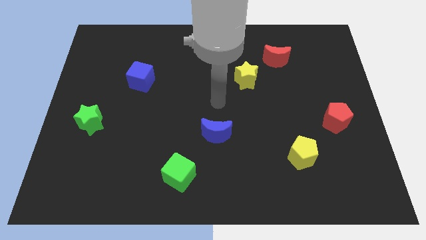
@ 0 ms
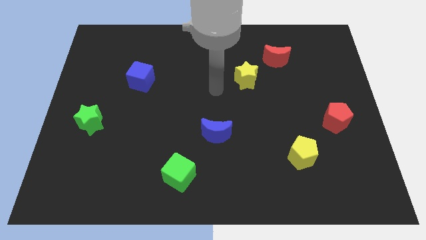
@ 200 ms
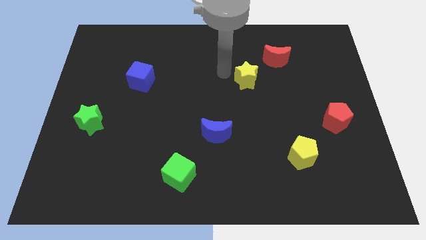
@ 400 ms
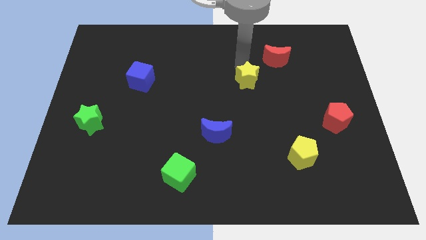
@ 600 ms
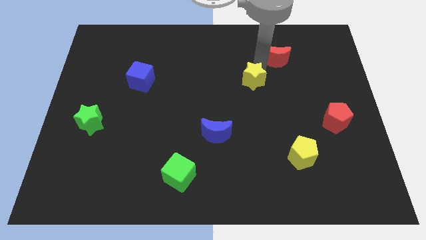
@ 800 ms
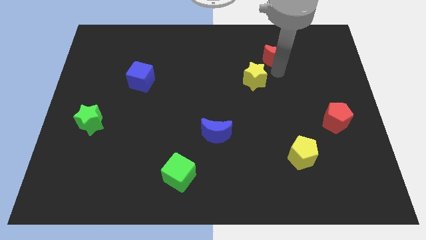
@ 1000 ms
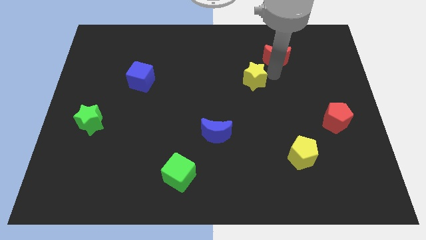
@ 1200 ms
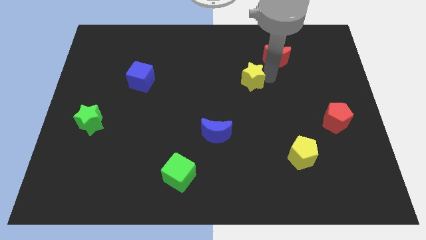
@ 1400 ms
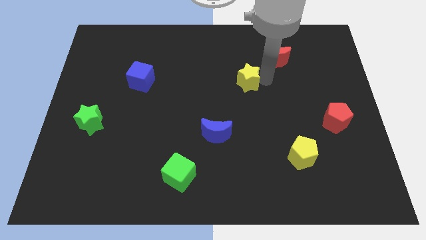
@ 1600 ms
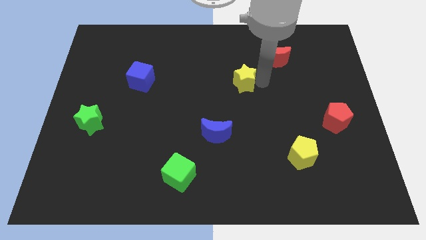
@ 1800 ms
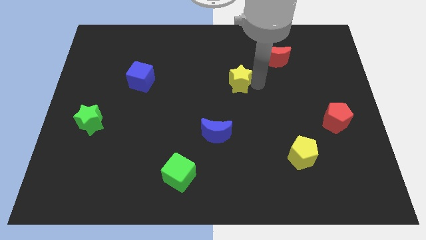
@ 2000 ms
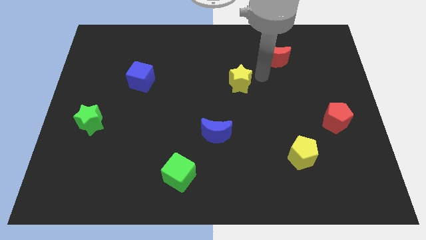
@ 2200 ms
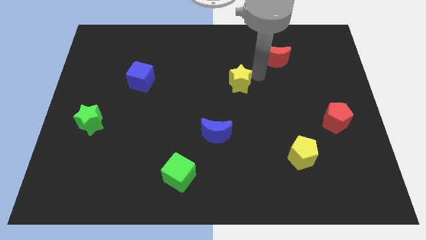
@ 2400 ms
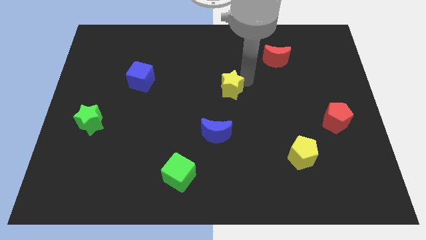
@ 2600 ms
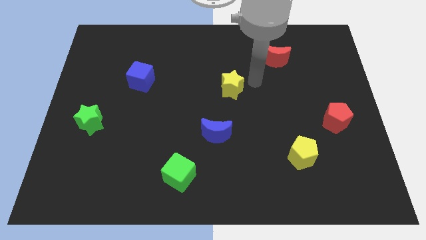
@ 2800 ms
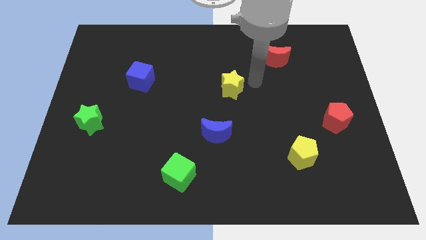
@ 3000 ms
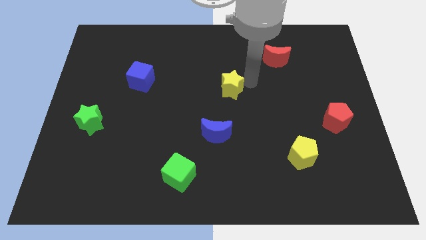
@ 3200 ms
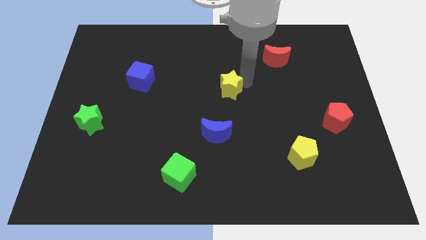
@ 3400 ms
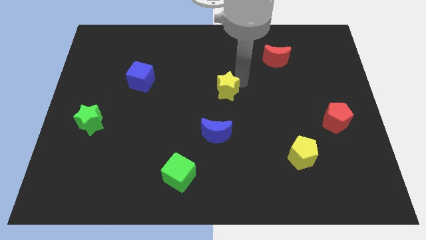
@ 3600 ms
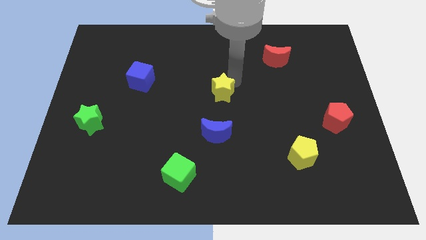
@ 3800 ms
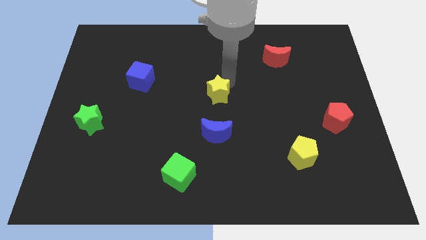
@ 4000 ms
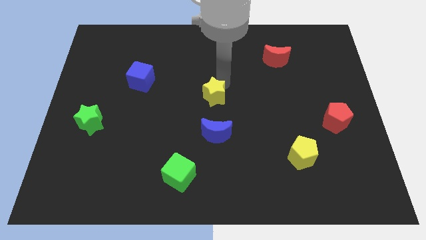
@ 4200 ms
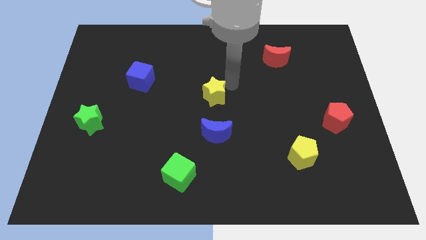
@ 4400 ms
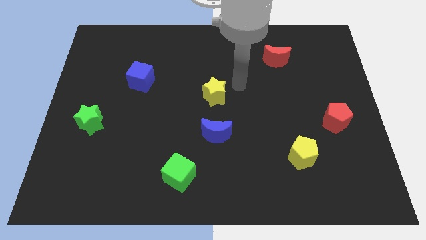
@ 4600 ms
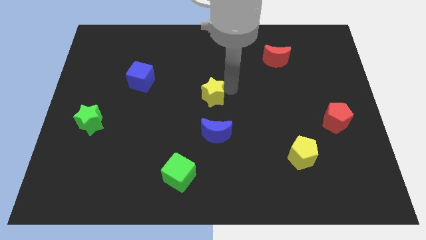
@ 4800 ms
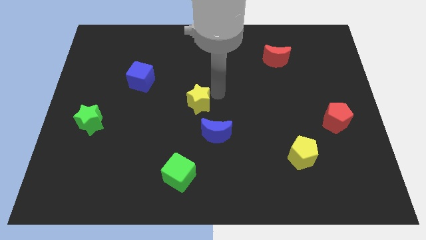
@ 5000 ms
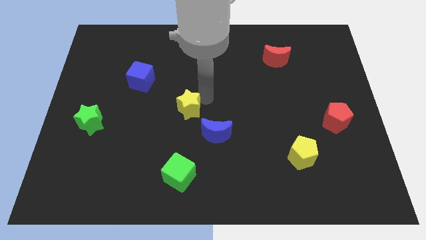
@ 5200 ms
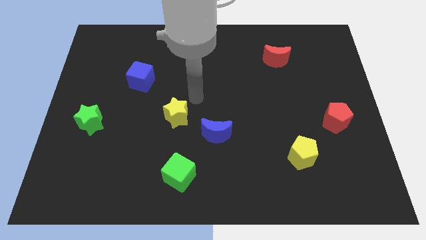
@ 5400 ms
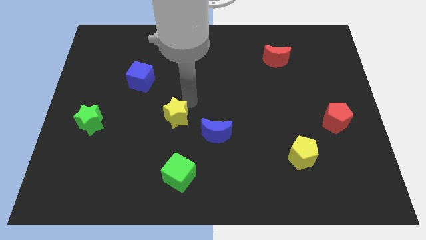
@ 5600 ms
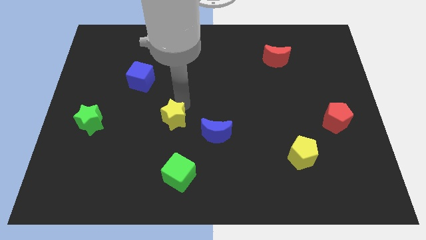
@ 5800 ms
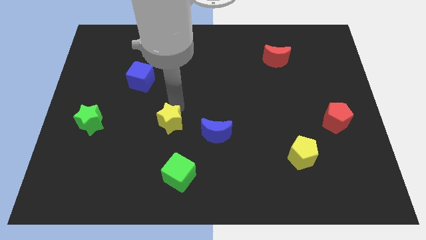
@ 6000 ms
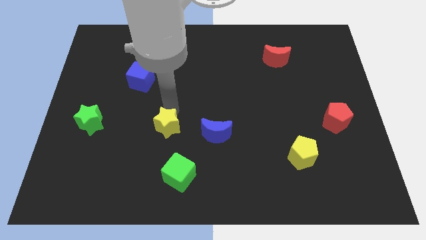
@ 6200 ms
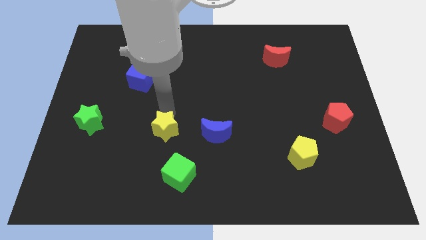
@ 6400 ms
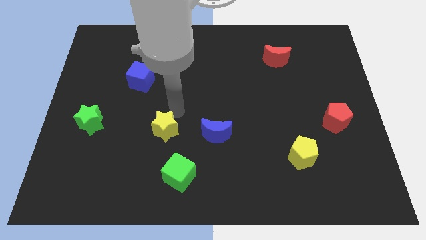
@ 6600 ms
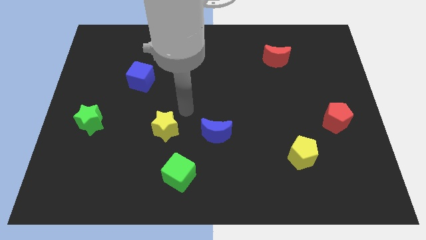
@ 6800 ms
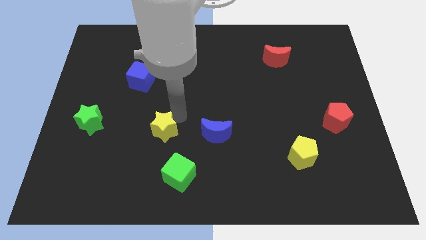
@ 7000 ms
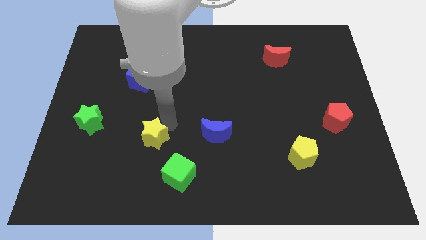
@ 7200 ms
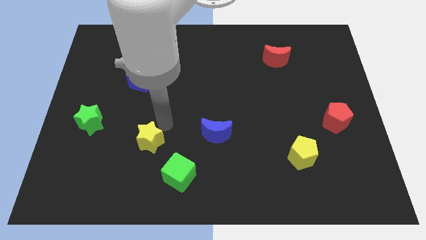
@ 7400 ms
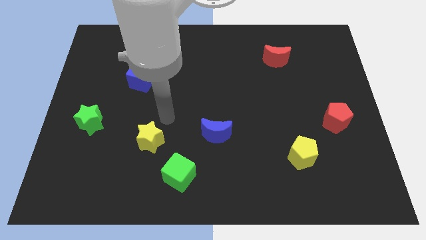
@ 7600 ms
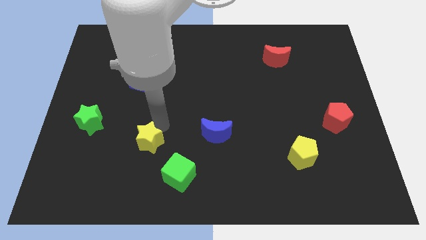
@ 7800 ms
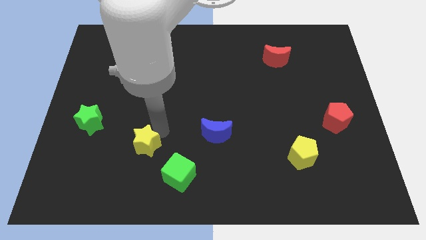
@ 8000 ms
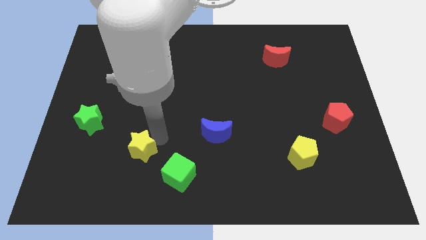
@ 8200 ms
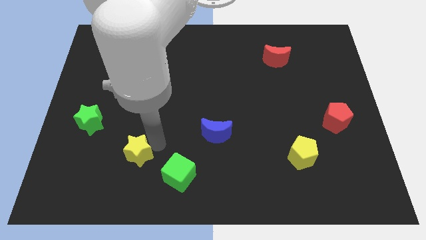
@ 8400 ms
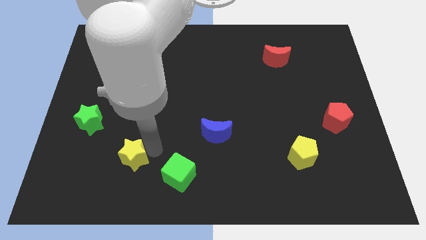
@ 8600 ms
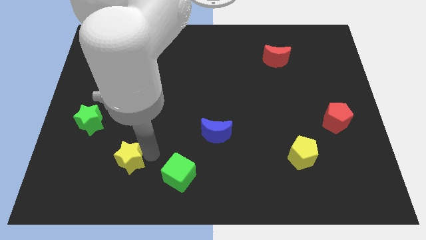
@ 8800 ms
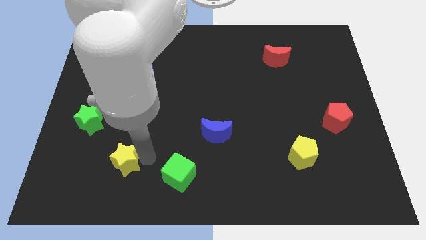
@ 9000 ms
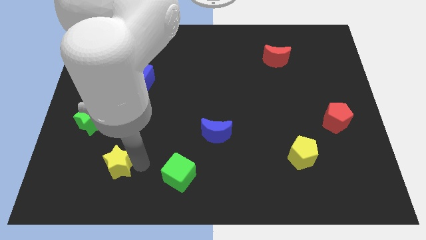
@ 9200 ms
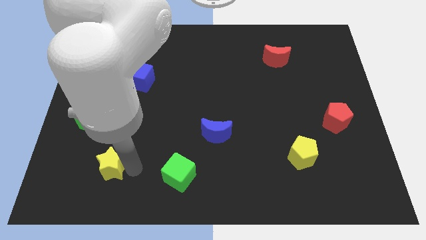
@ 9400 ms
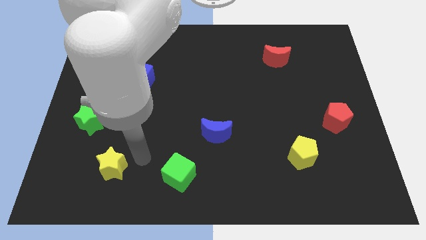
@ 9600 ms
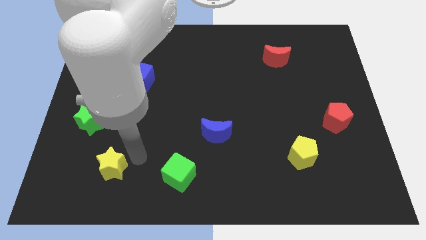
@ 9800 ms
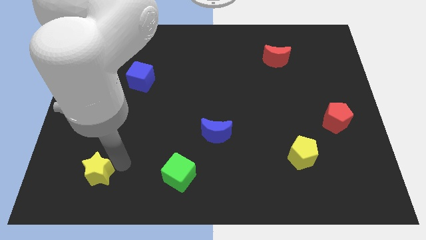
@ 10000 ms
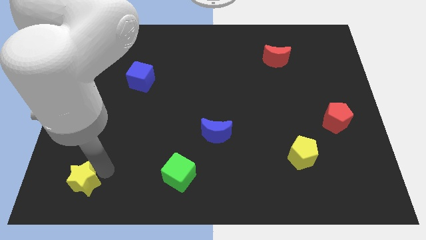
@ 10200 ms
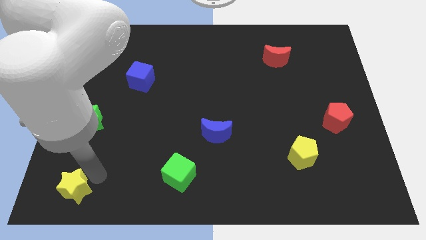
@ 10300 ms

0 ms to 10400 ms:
move the yellow star to the bottom left

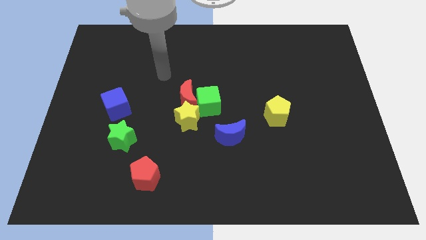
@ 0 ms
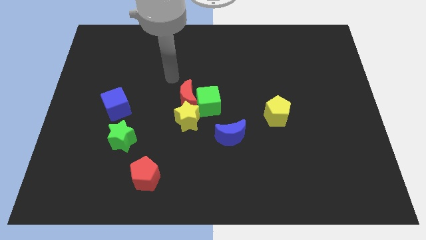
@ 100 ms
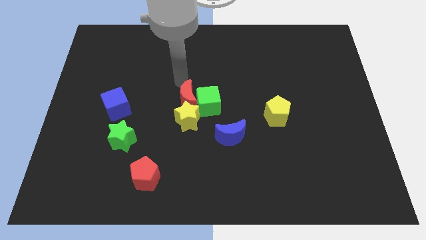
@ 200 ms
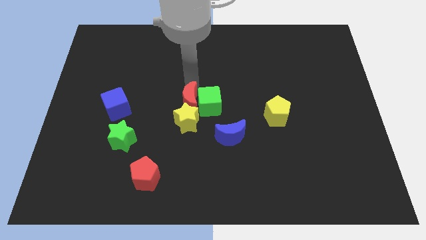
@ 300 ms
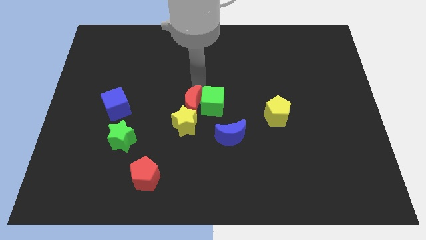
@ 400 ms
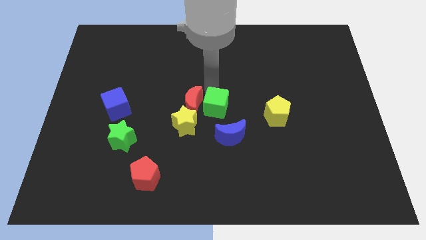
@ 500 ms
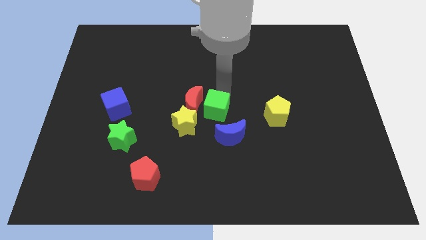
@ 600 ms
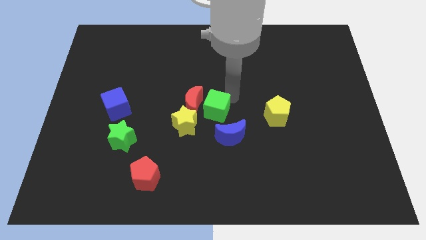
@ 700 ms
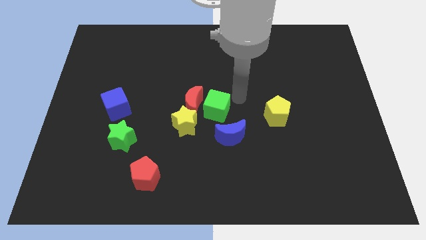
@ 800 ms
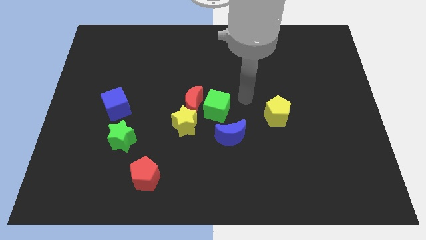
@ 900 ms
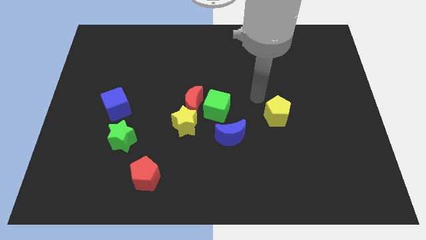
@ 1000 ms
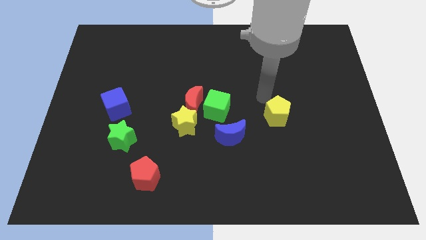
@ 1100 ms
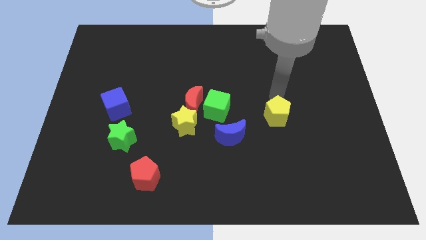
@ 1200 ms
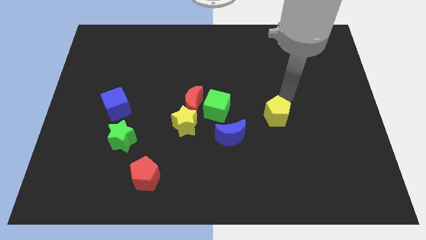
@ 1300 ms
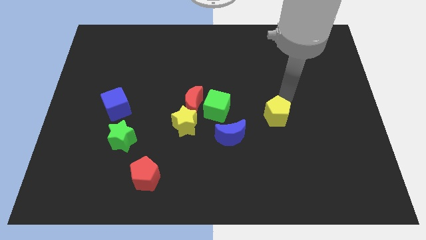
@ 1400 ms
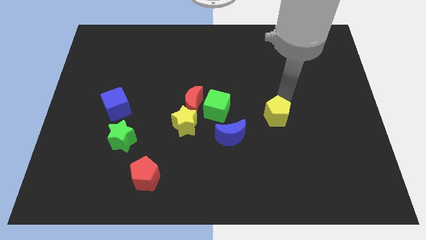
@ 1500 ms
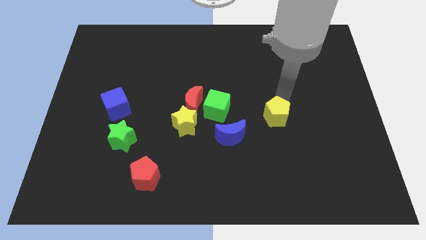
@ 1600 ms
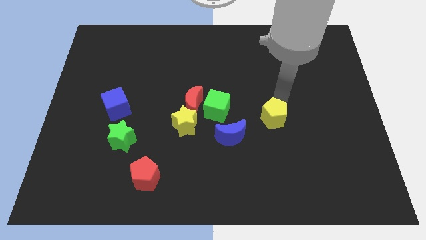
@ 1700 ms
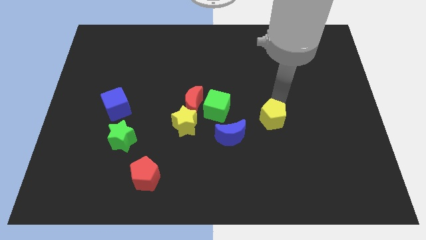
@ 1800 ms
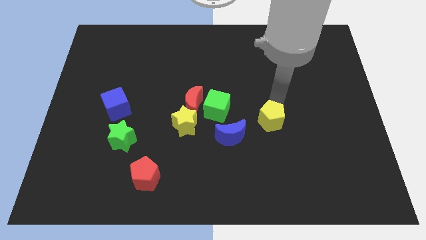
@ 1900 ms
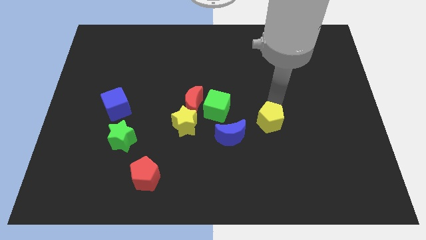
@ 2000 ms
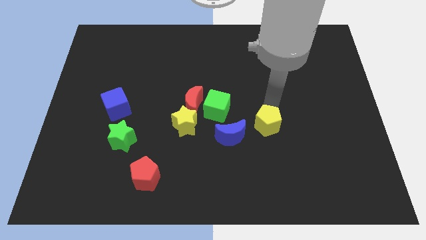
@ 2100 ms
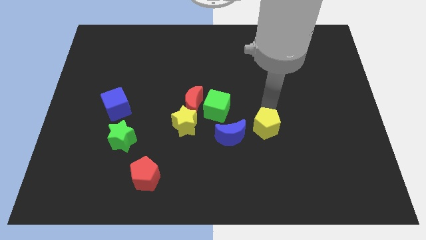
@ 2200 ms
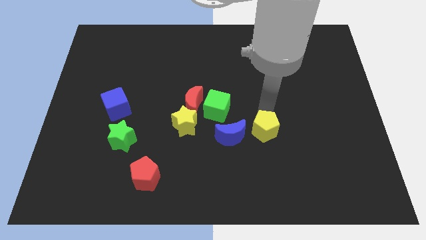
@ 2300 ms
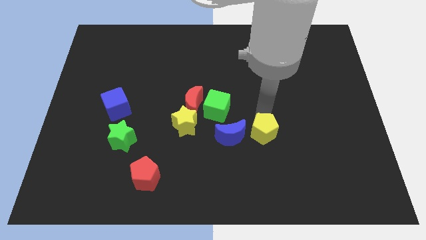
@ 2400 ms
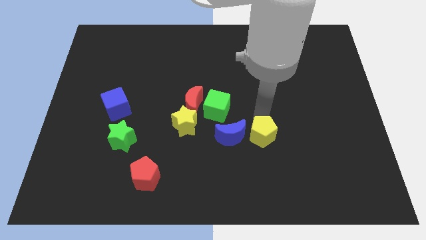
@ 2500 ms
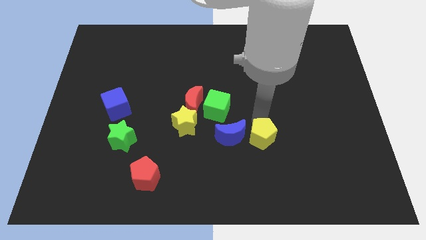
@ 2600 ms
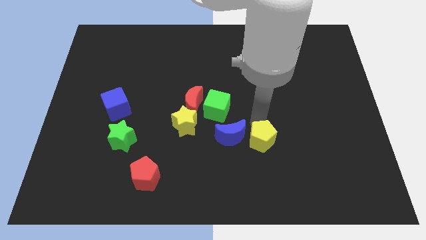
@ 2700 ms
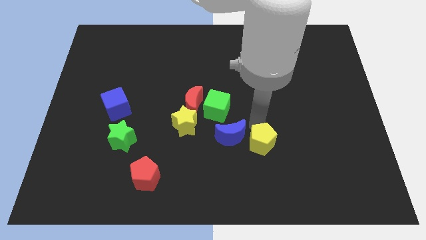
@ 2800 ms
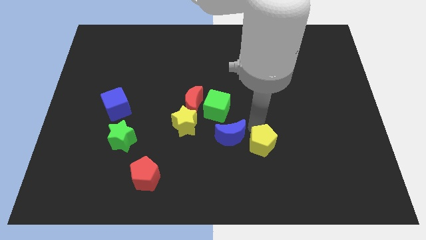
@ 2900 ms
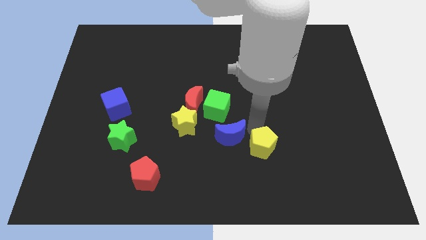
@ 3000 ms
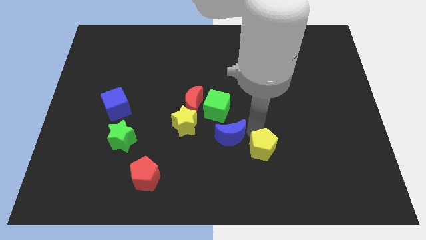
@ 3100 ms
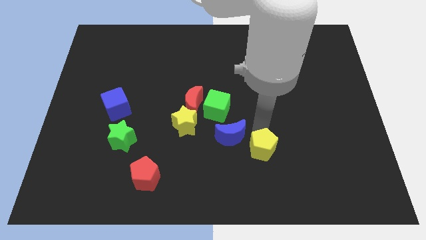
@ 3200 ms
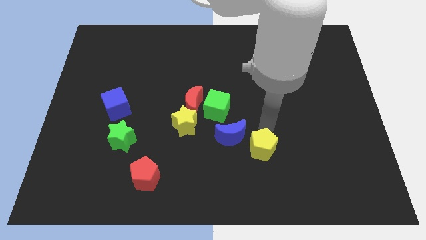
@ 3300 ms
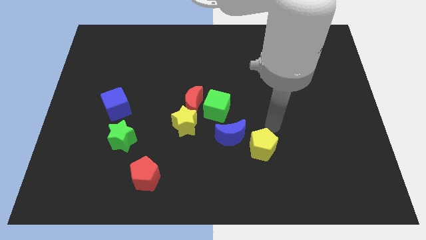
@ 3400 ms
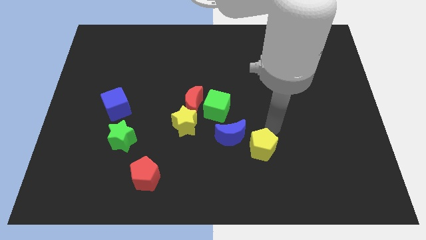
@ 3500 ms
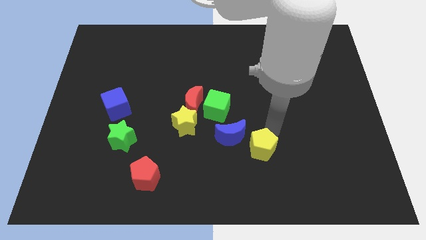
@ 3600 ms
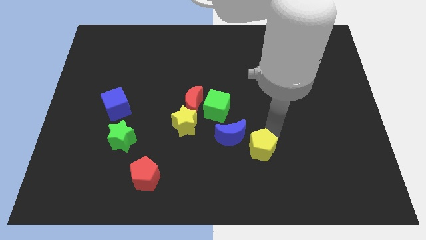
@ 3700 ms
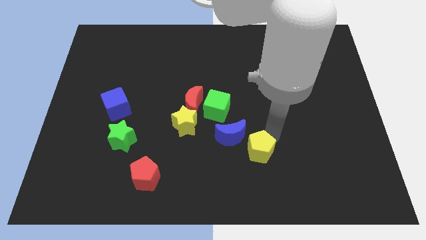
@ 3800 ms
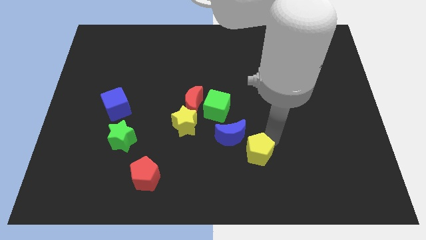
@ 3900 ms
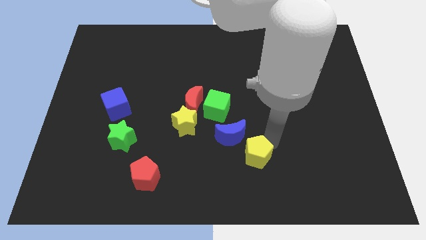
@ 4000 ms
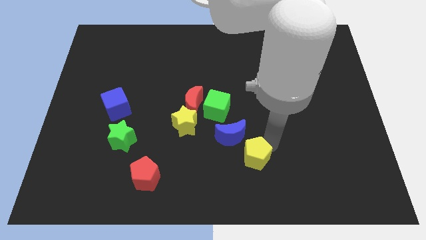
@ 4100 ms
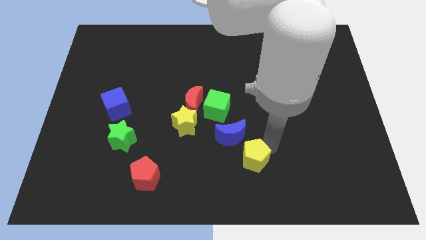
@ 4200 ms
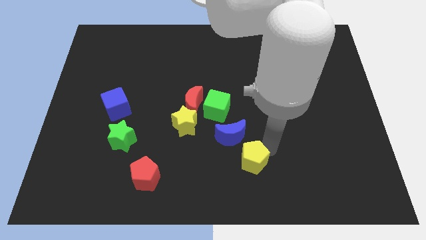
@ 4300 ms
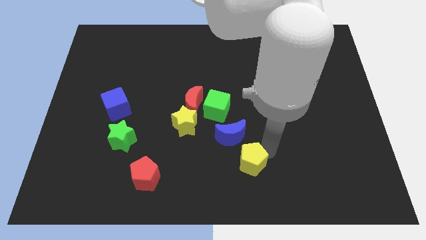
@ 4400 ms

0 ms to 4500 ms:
slide the yellow pentagon to the bottom side
